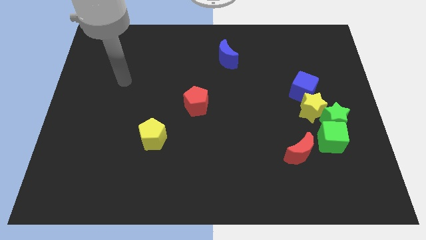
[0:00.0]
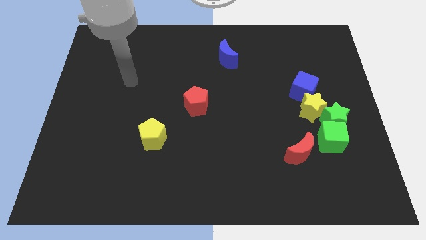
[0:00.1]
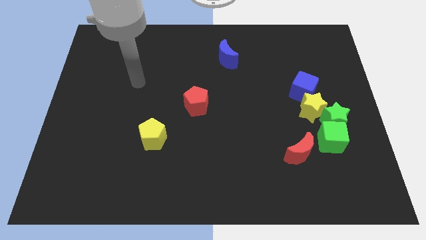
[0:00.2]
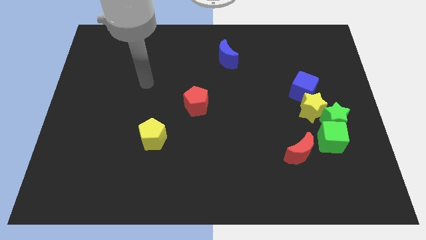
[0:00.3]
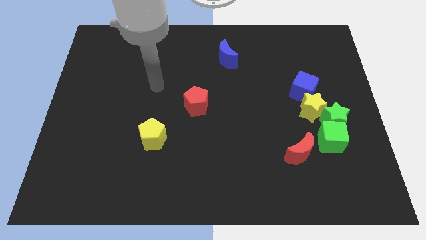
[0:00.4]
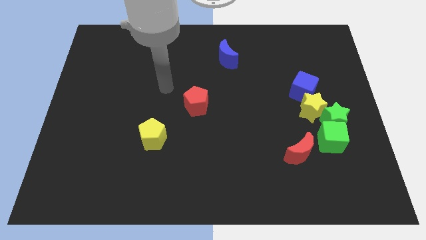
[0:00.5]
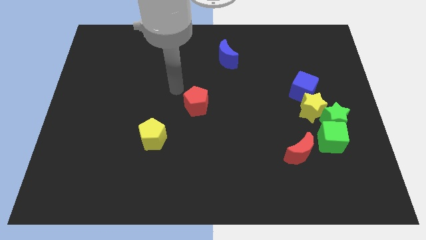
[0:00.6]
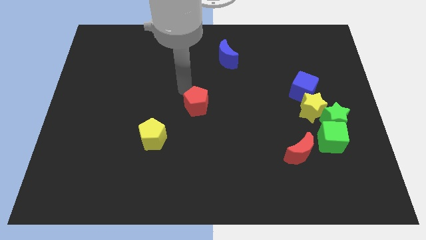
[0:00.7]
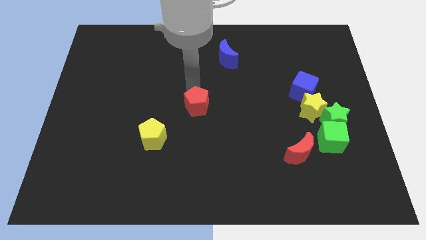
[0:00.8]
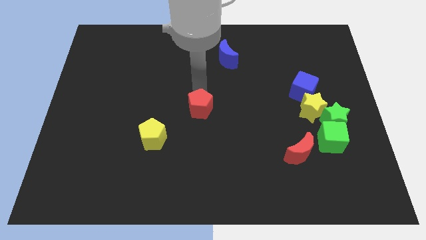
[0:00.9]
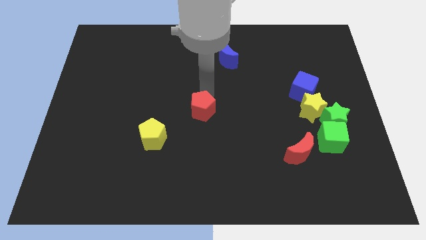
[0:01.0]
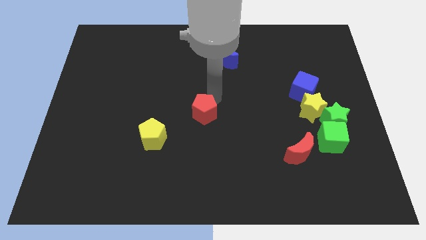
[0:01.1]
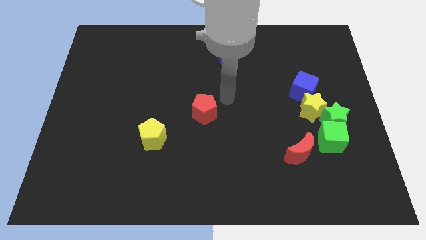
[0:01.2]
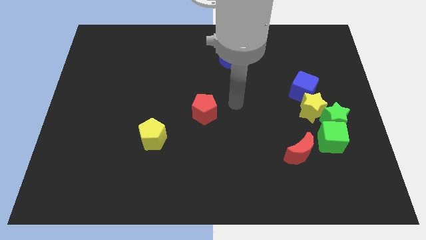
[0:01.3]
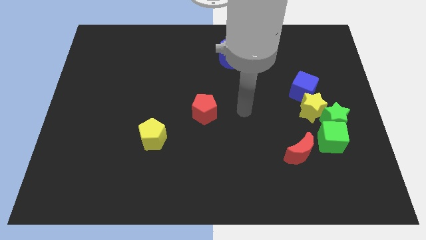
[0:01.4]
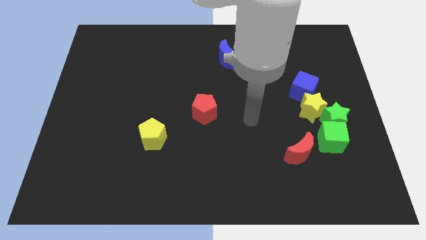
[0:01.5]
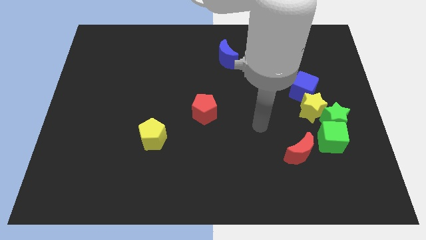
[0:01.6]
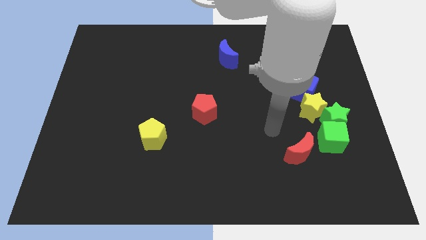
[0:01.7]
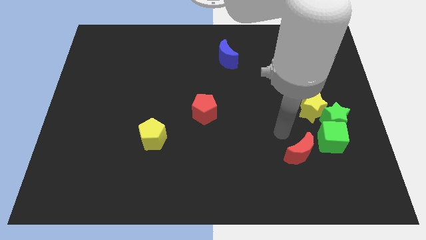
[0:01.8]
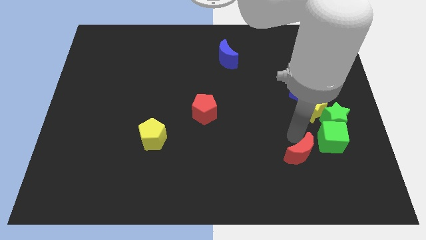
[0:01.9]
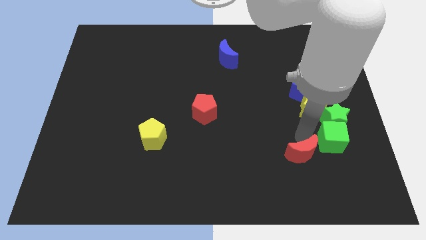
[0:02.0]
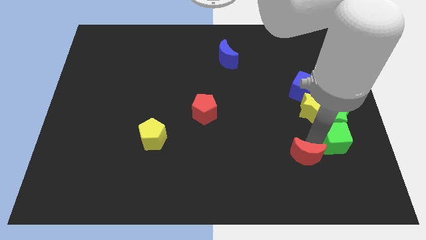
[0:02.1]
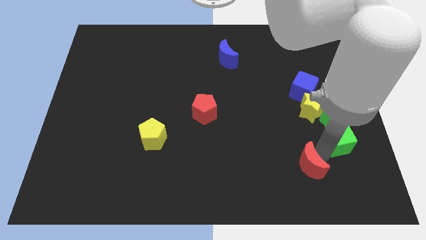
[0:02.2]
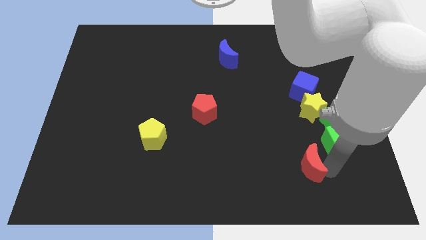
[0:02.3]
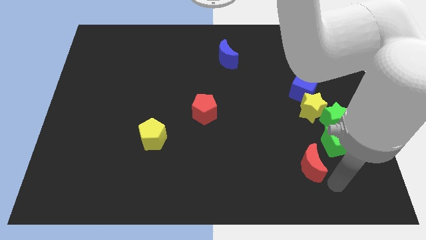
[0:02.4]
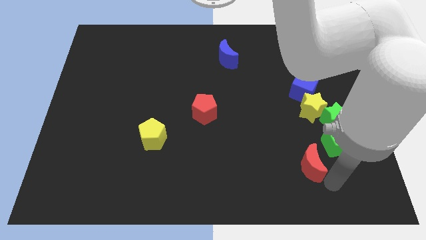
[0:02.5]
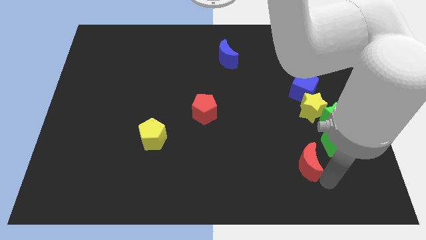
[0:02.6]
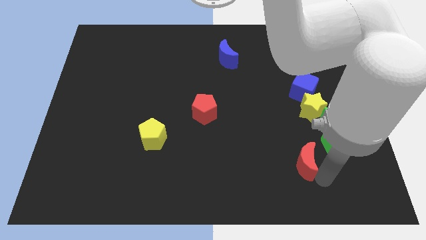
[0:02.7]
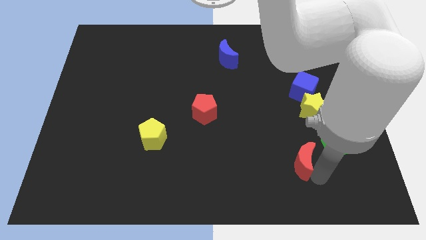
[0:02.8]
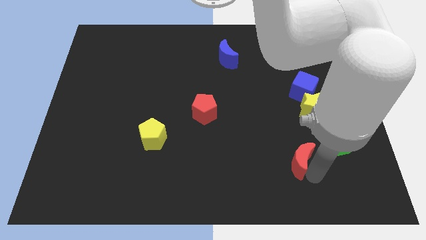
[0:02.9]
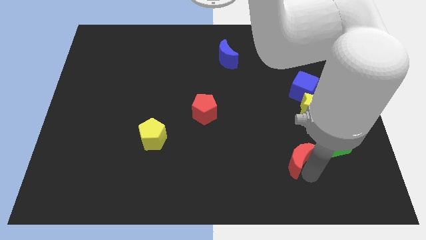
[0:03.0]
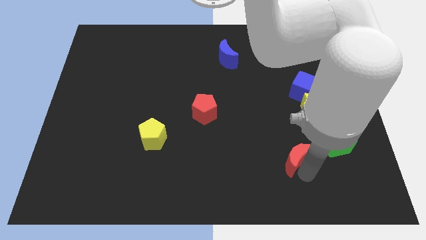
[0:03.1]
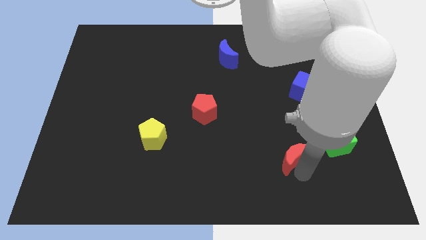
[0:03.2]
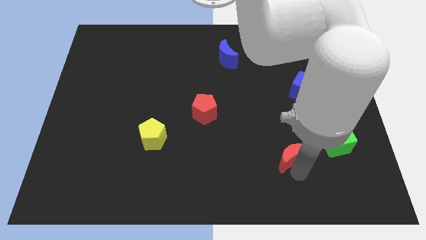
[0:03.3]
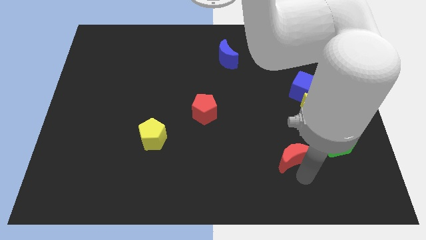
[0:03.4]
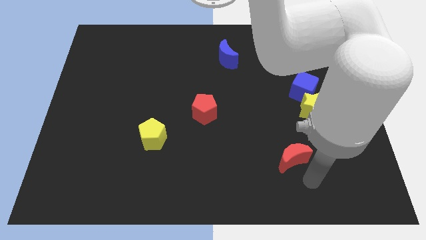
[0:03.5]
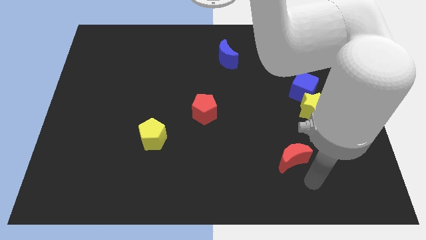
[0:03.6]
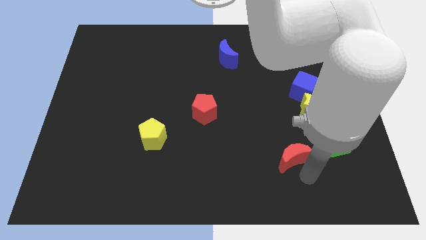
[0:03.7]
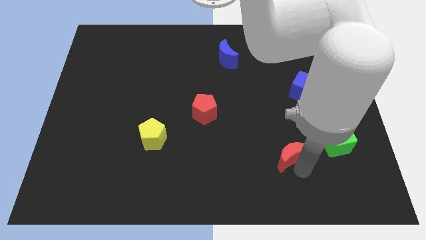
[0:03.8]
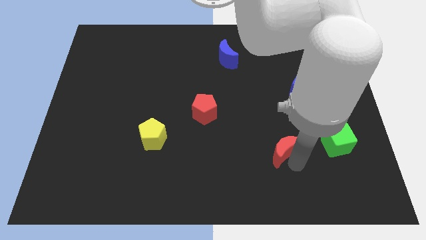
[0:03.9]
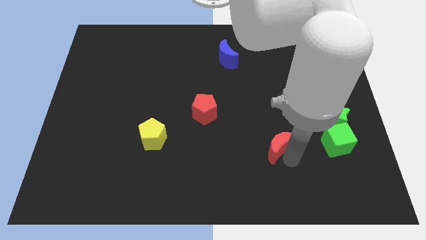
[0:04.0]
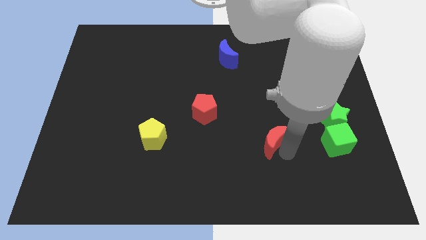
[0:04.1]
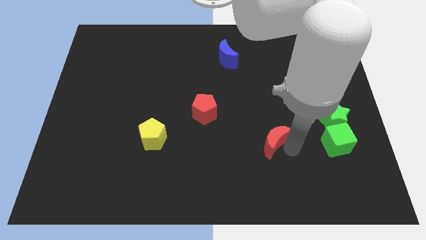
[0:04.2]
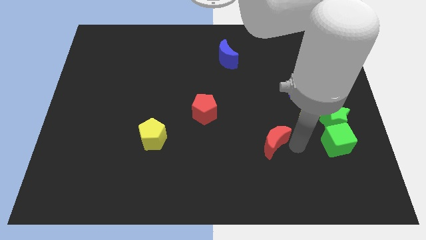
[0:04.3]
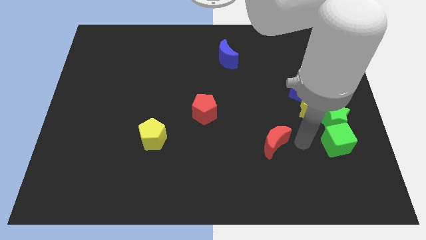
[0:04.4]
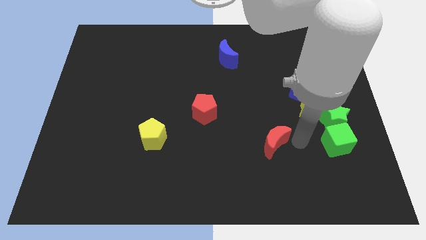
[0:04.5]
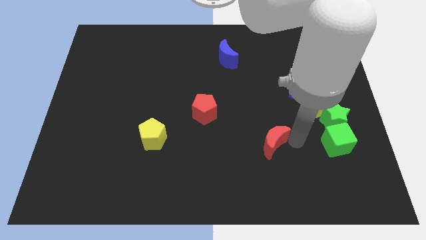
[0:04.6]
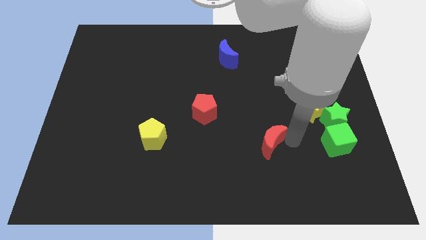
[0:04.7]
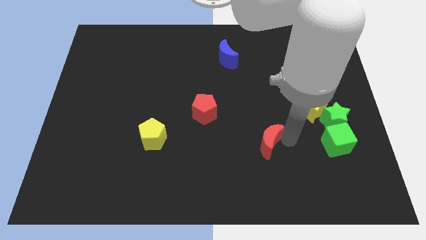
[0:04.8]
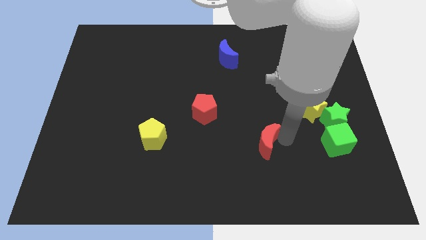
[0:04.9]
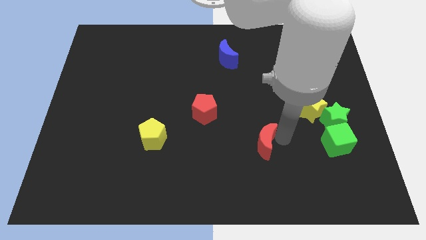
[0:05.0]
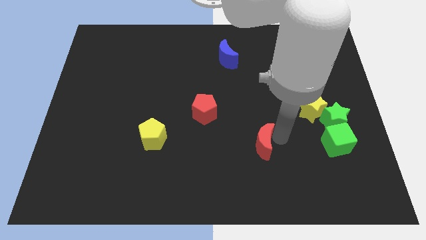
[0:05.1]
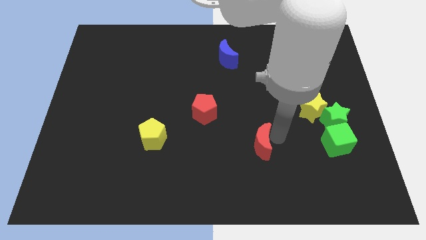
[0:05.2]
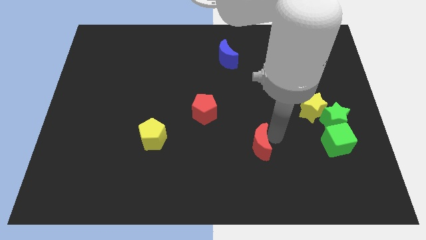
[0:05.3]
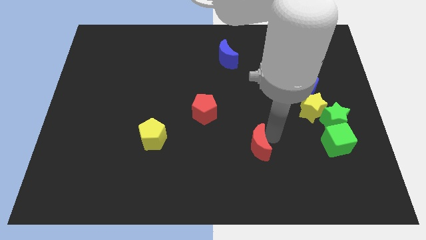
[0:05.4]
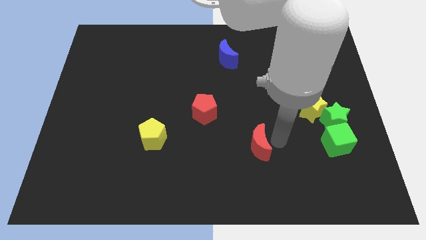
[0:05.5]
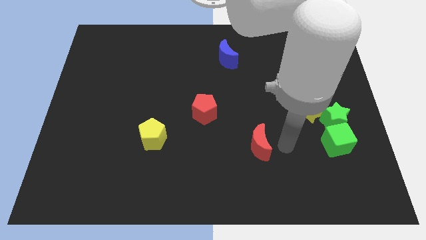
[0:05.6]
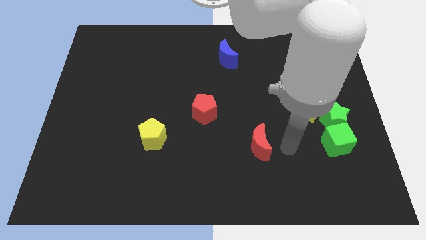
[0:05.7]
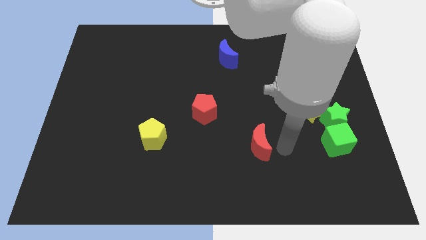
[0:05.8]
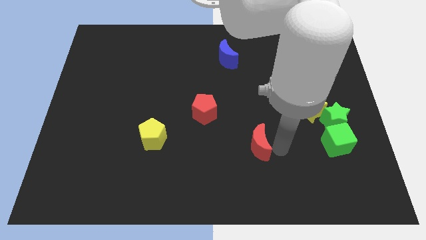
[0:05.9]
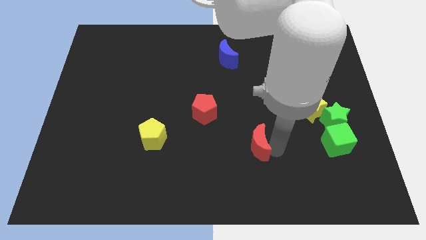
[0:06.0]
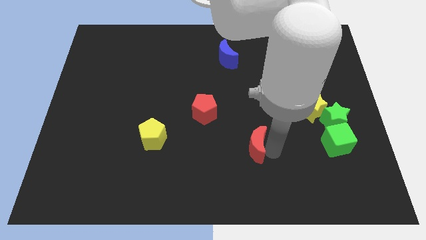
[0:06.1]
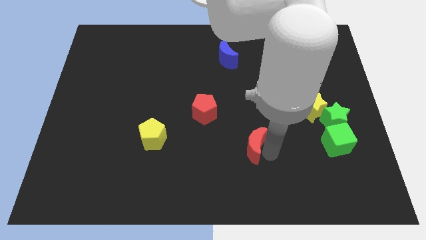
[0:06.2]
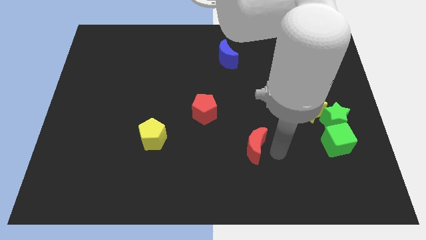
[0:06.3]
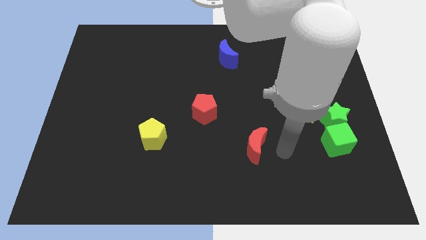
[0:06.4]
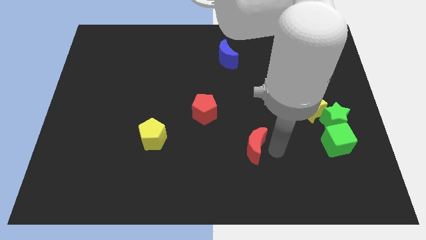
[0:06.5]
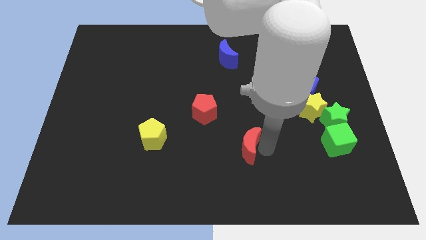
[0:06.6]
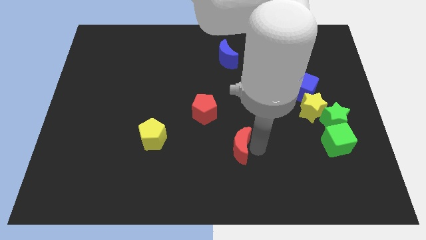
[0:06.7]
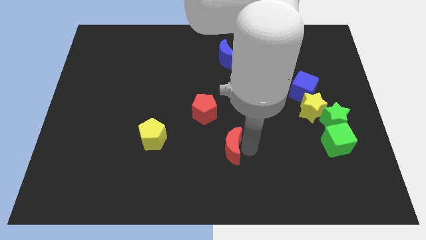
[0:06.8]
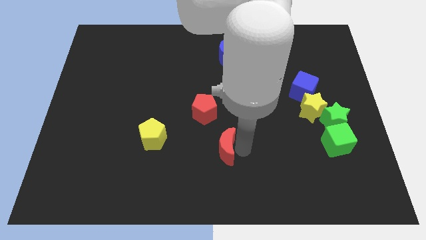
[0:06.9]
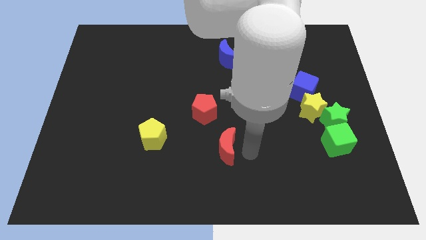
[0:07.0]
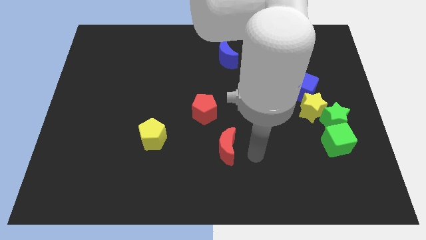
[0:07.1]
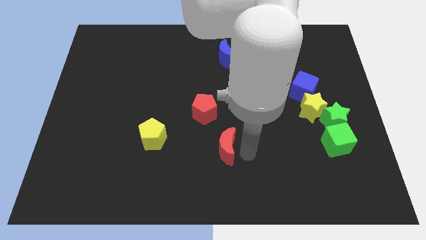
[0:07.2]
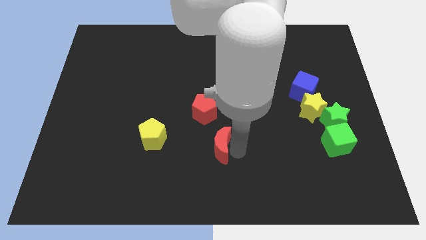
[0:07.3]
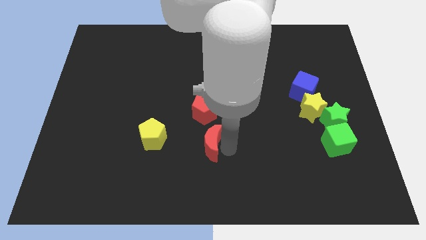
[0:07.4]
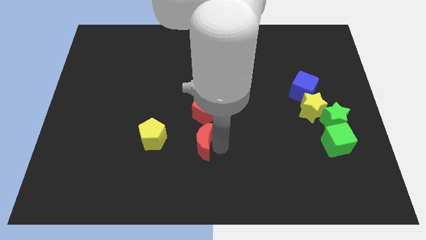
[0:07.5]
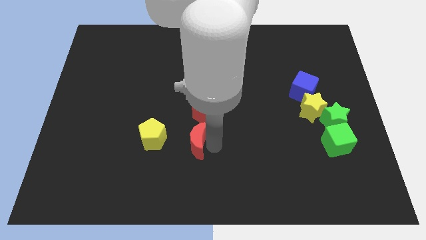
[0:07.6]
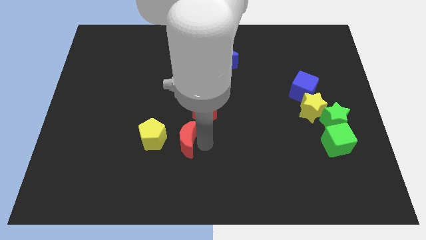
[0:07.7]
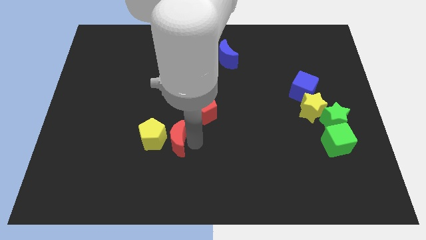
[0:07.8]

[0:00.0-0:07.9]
put the red moon close to the yellow pentagon
